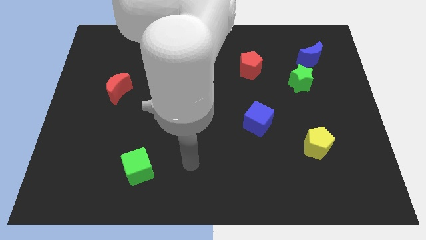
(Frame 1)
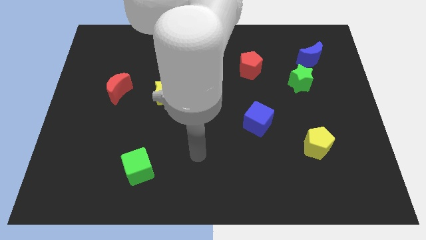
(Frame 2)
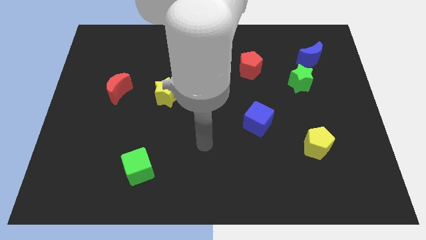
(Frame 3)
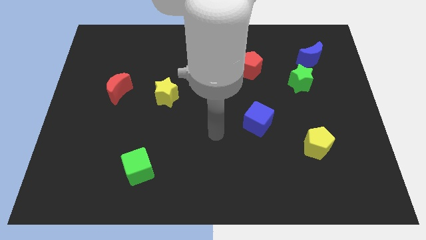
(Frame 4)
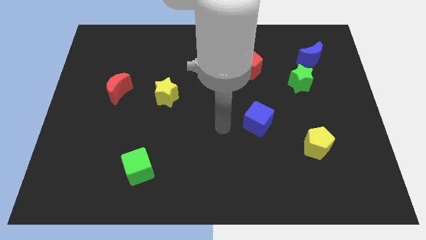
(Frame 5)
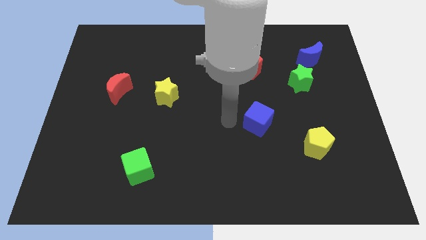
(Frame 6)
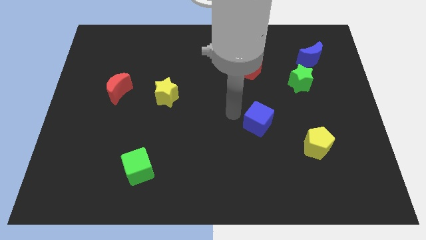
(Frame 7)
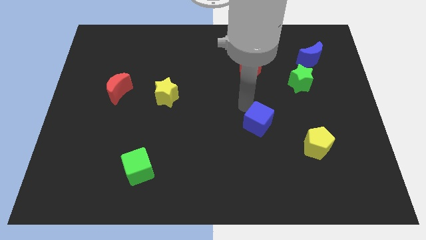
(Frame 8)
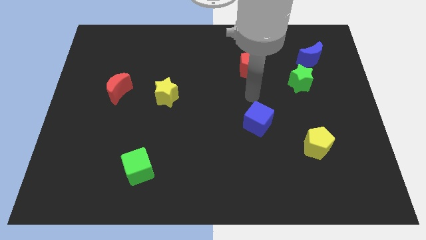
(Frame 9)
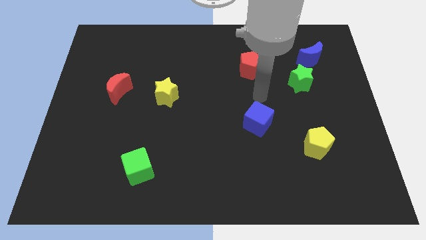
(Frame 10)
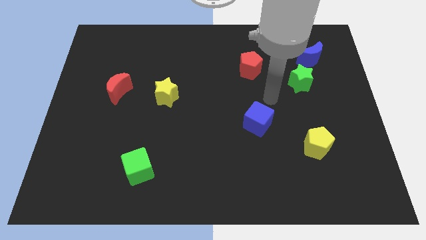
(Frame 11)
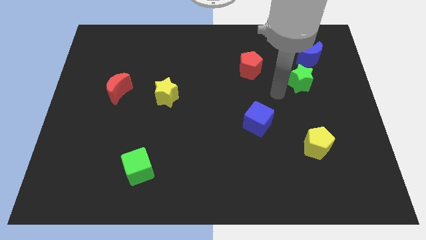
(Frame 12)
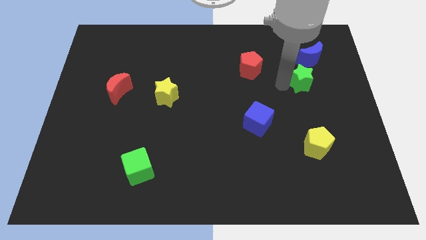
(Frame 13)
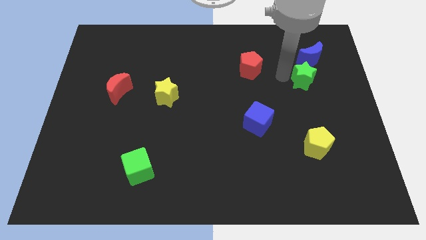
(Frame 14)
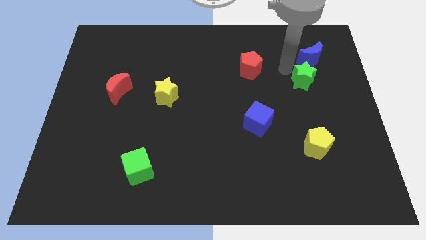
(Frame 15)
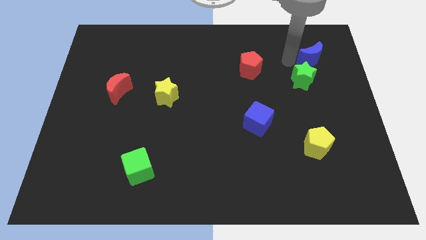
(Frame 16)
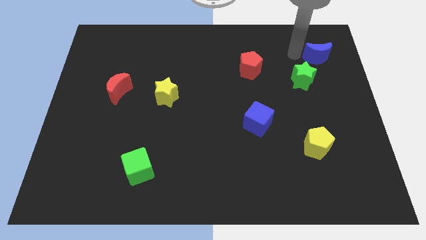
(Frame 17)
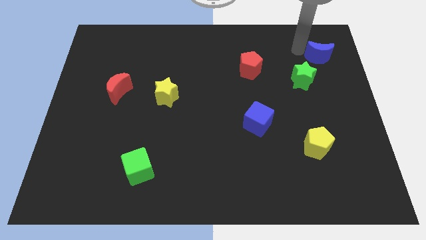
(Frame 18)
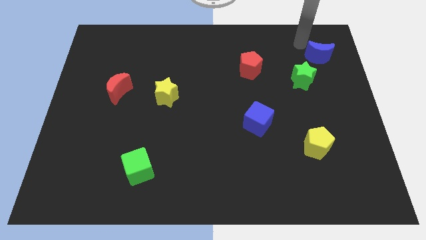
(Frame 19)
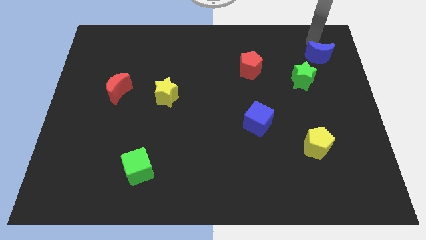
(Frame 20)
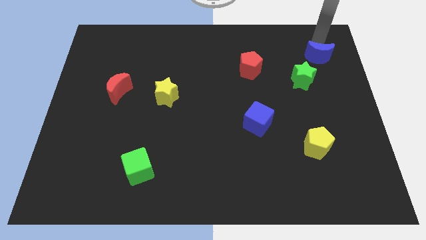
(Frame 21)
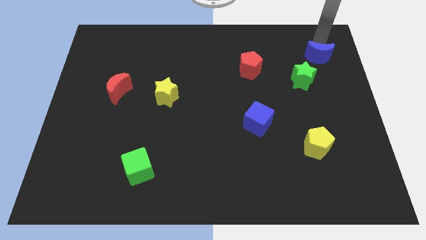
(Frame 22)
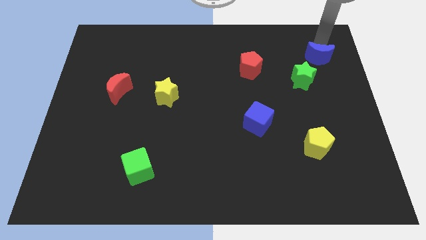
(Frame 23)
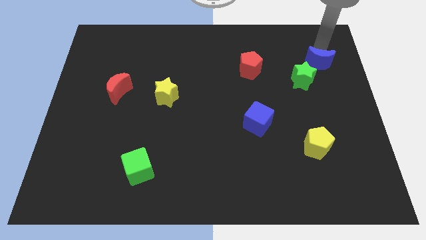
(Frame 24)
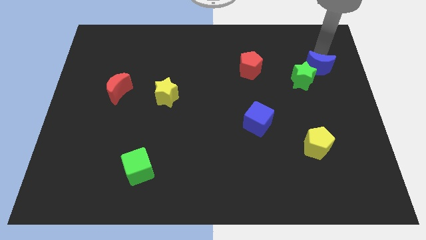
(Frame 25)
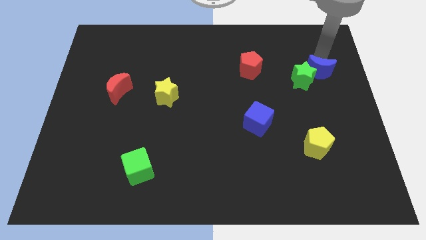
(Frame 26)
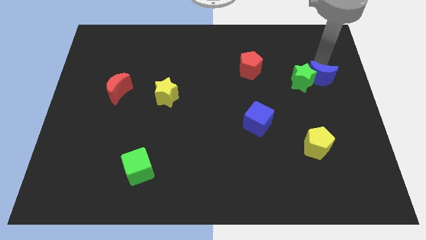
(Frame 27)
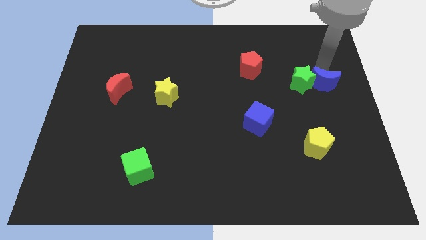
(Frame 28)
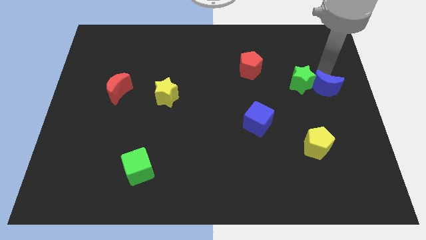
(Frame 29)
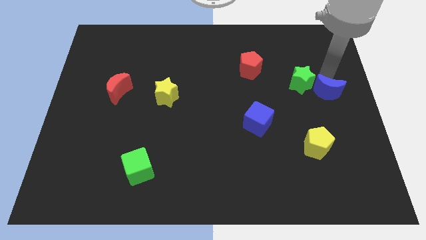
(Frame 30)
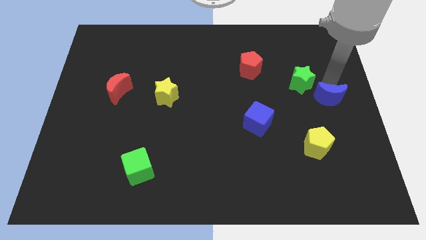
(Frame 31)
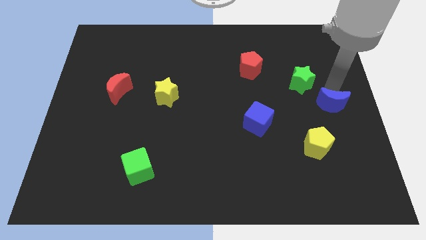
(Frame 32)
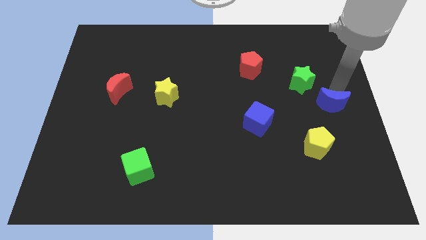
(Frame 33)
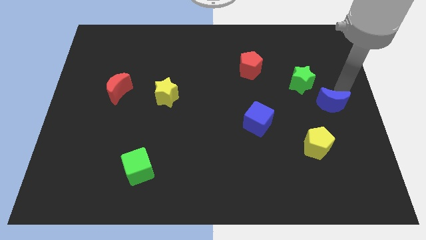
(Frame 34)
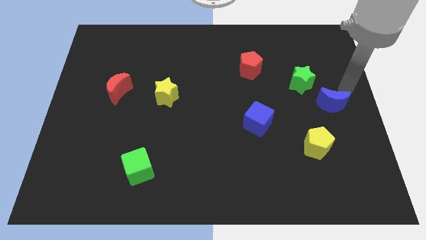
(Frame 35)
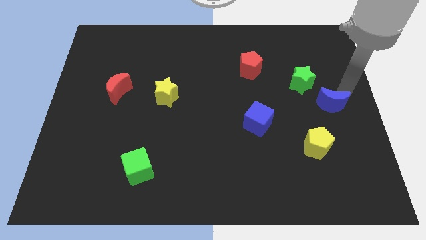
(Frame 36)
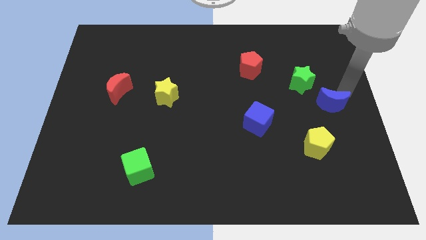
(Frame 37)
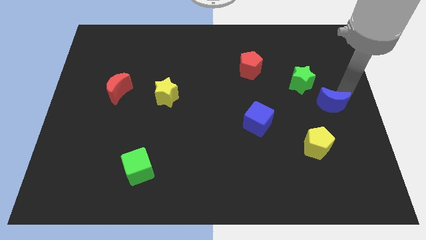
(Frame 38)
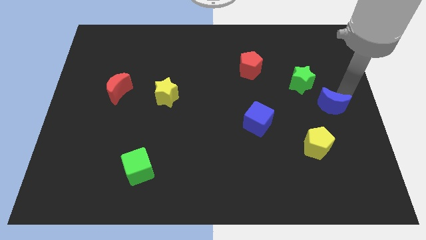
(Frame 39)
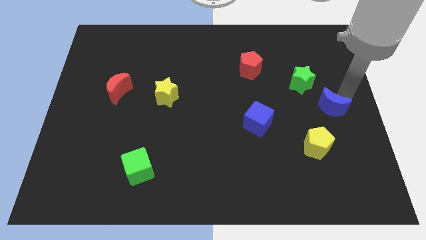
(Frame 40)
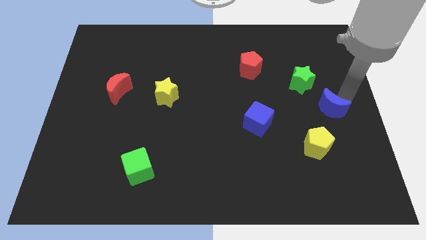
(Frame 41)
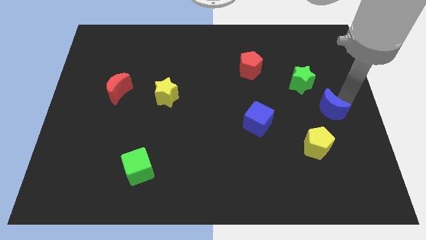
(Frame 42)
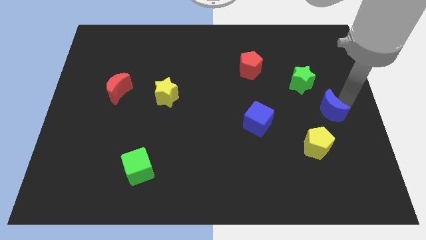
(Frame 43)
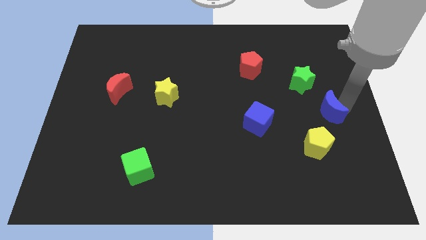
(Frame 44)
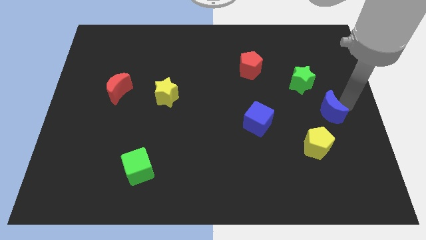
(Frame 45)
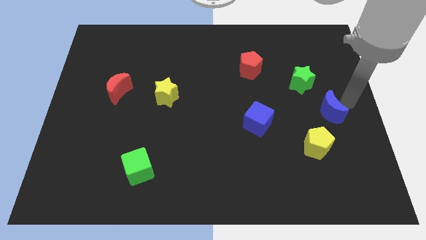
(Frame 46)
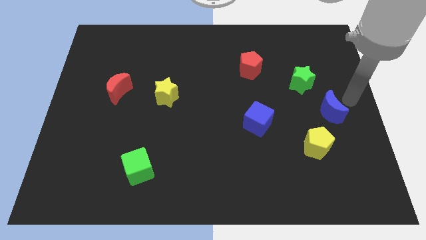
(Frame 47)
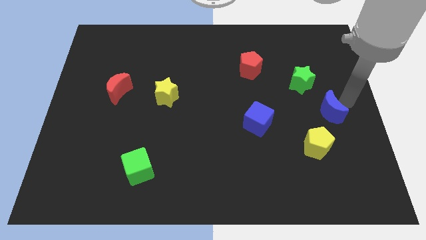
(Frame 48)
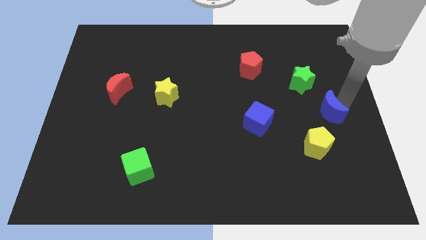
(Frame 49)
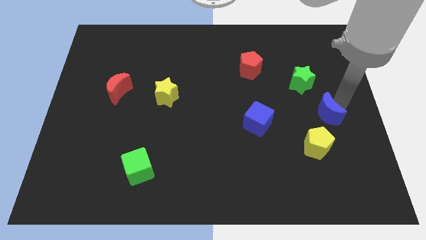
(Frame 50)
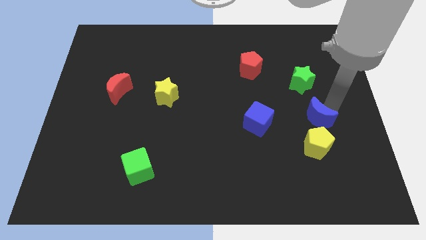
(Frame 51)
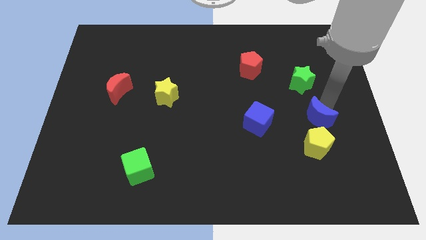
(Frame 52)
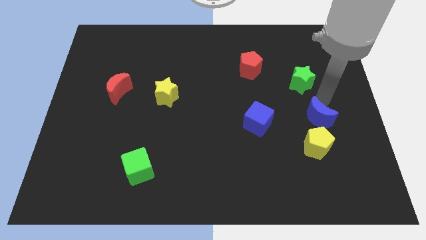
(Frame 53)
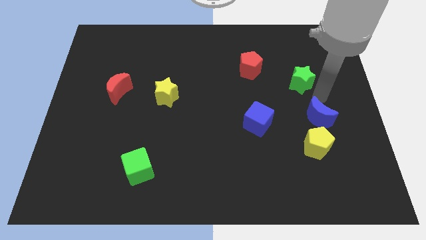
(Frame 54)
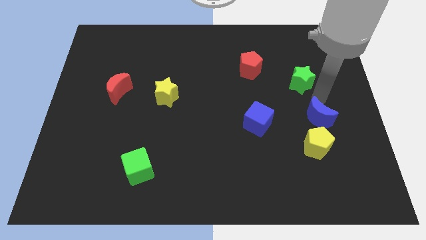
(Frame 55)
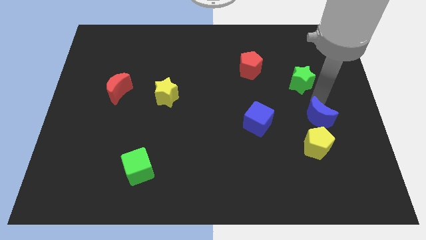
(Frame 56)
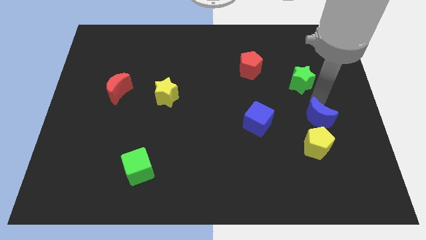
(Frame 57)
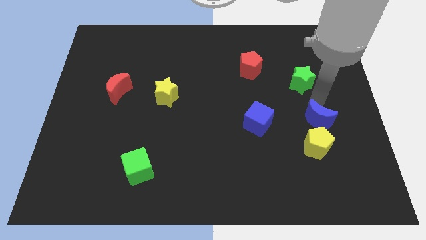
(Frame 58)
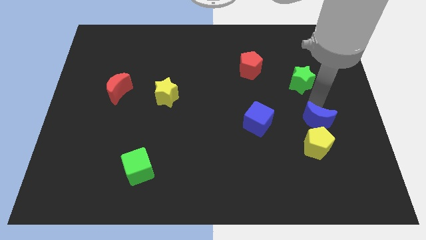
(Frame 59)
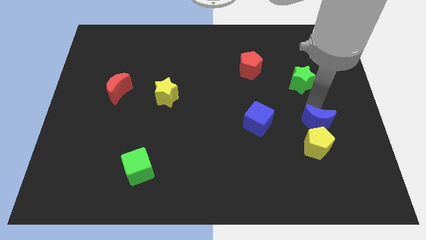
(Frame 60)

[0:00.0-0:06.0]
push the blue moon next to the yellow pentagon
